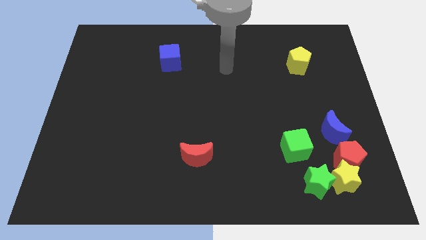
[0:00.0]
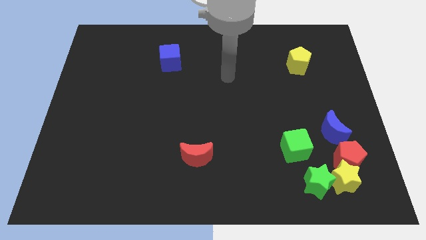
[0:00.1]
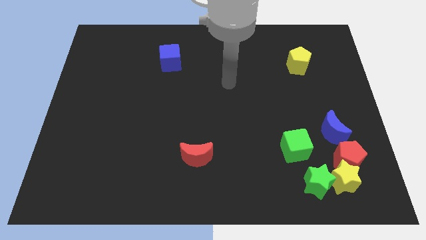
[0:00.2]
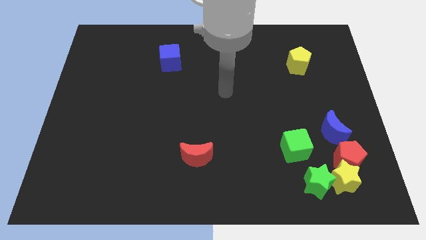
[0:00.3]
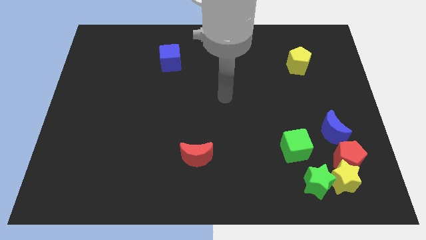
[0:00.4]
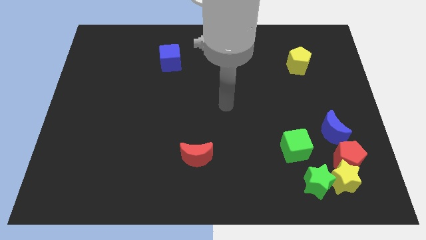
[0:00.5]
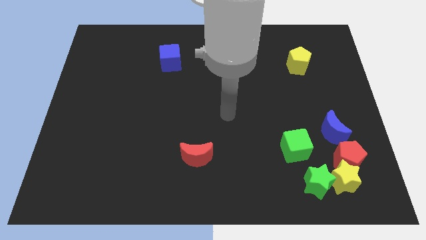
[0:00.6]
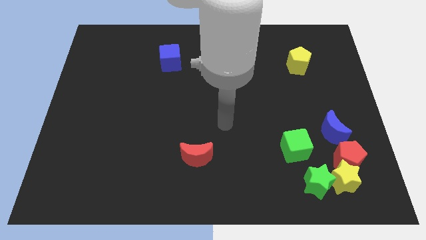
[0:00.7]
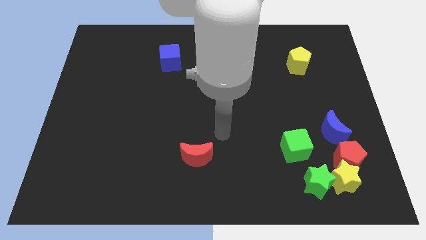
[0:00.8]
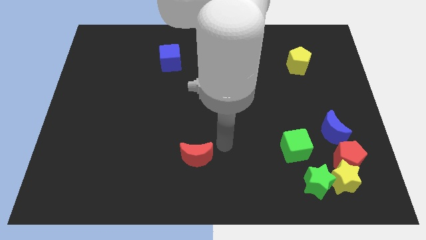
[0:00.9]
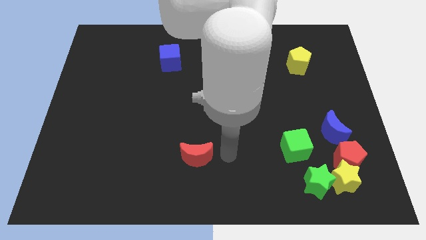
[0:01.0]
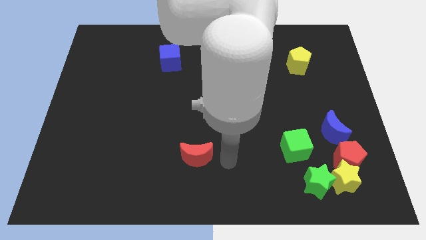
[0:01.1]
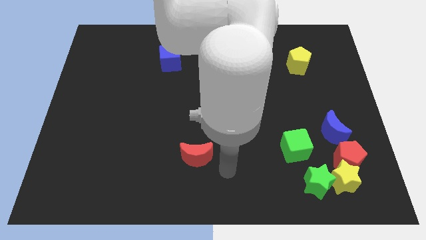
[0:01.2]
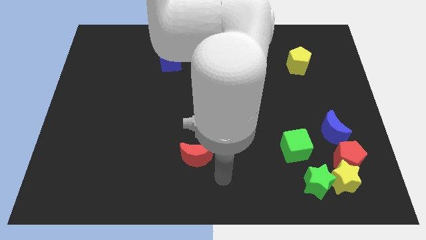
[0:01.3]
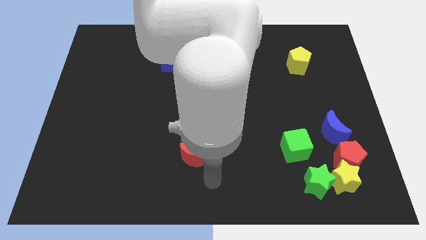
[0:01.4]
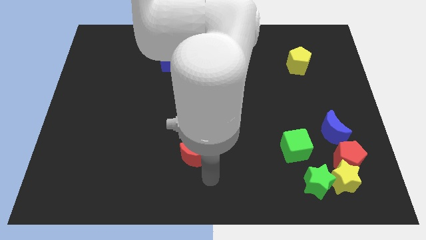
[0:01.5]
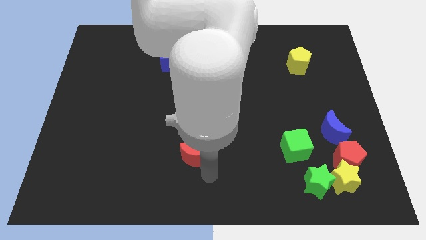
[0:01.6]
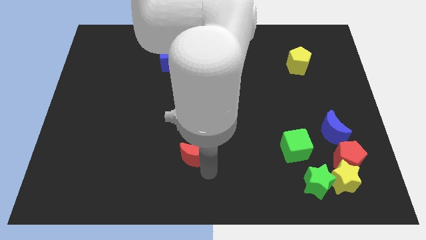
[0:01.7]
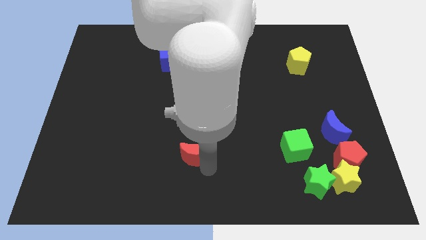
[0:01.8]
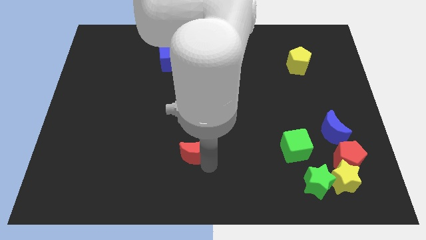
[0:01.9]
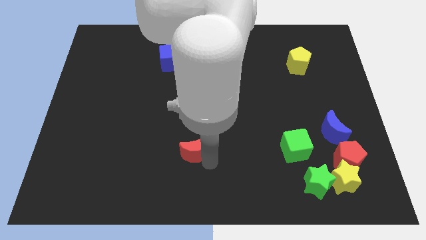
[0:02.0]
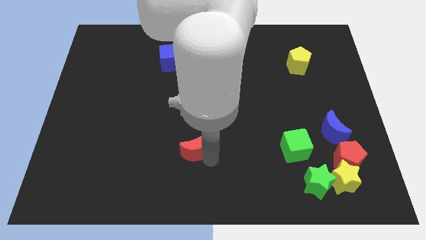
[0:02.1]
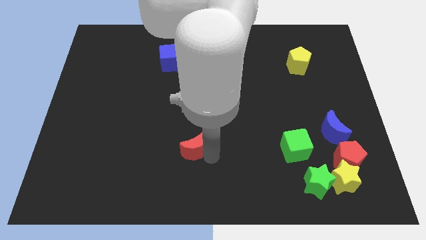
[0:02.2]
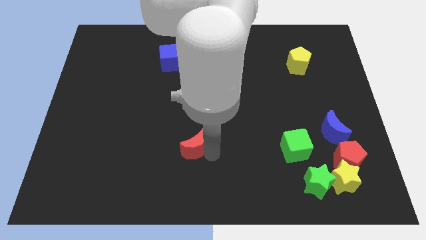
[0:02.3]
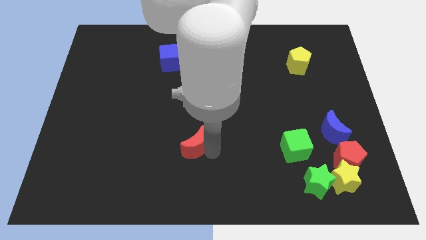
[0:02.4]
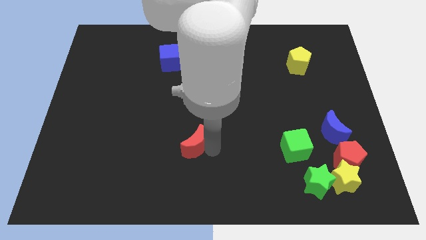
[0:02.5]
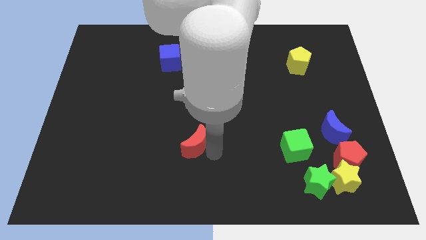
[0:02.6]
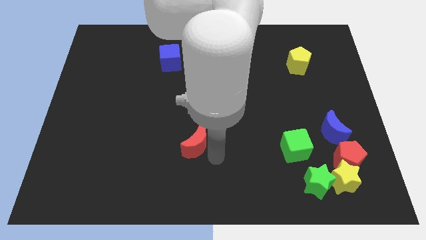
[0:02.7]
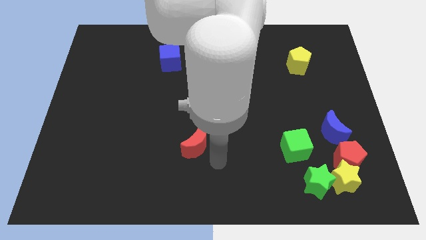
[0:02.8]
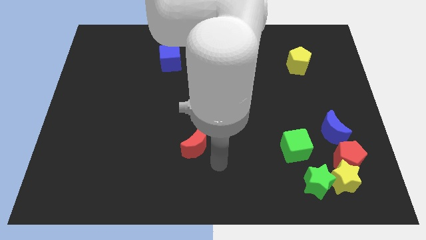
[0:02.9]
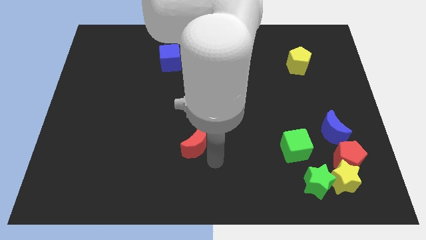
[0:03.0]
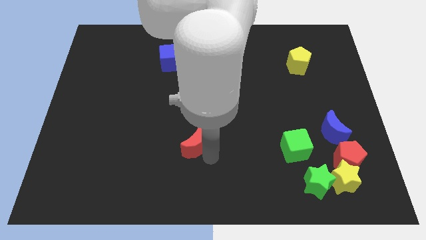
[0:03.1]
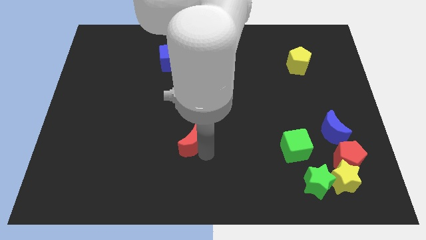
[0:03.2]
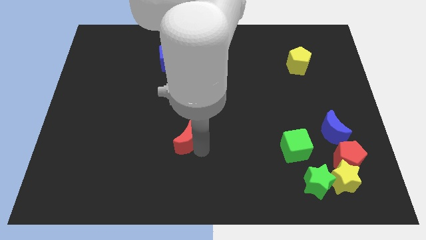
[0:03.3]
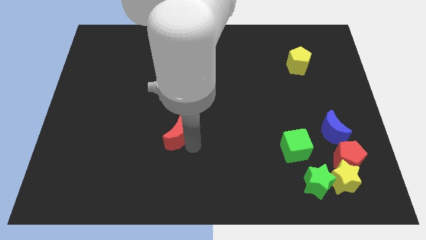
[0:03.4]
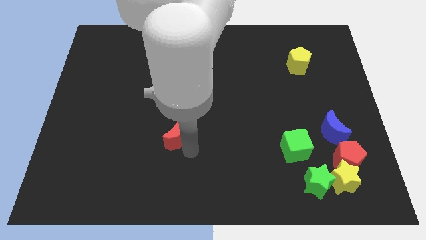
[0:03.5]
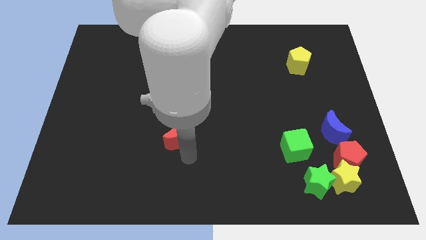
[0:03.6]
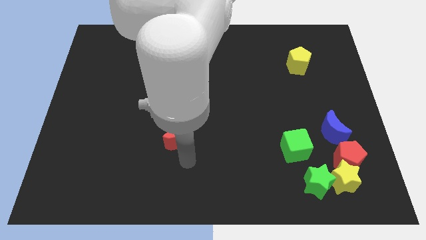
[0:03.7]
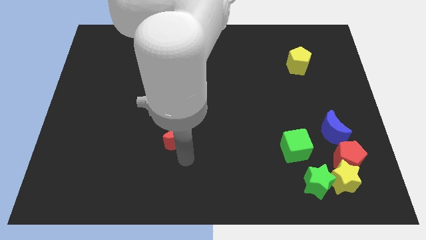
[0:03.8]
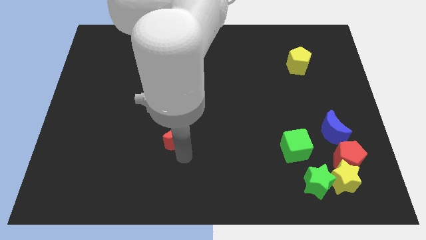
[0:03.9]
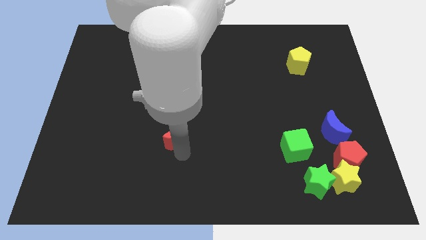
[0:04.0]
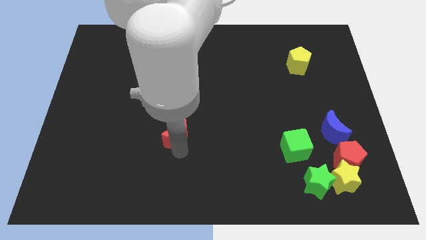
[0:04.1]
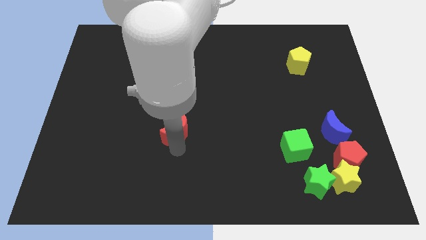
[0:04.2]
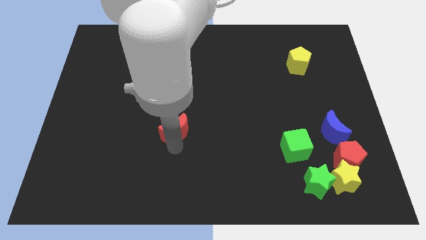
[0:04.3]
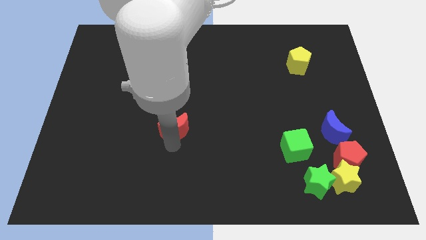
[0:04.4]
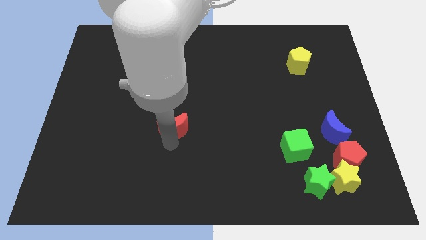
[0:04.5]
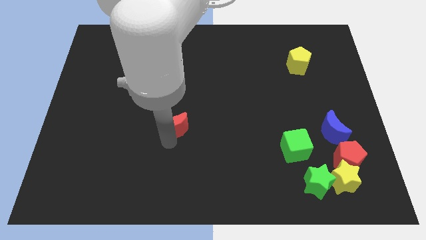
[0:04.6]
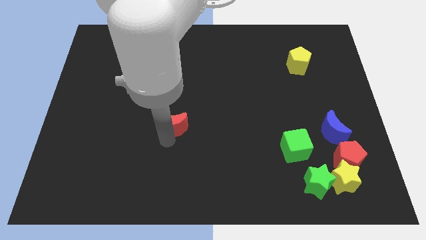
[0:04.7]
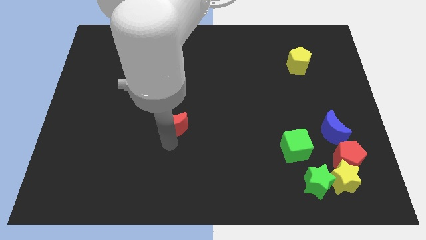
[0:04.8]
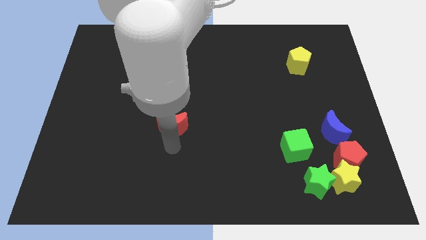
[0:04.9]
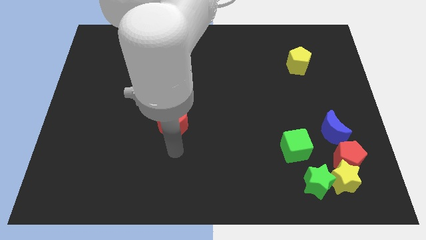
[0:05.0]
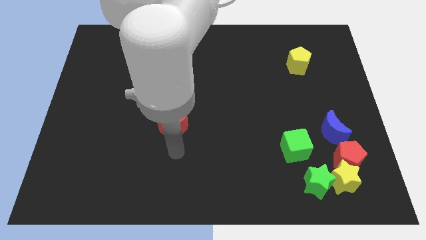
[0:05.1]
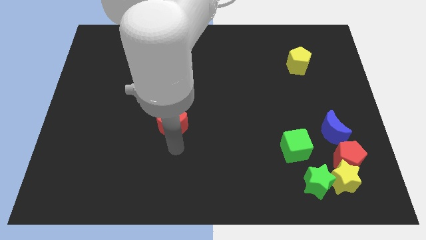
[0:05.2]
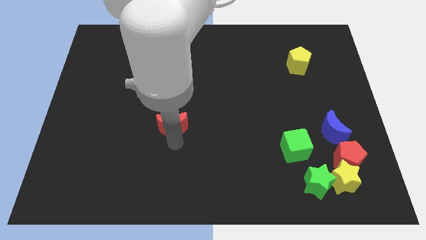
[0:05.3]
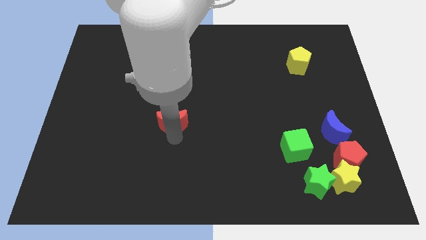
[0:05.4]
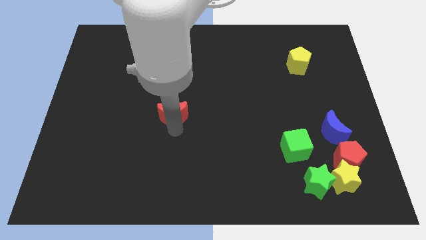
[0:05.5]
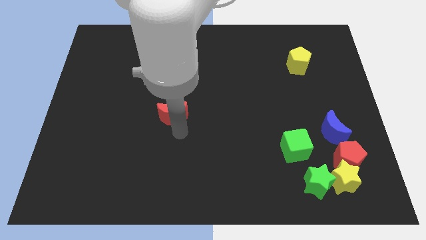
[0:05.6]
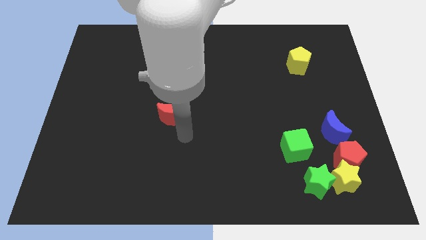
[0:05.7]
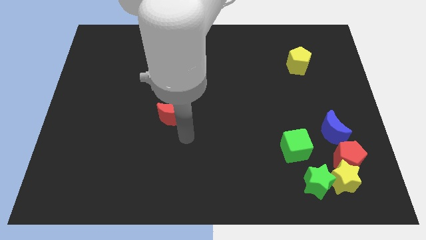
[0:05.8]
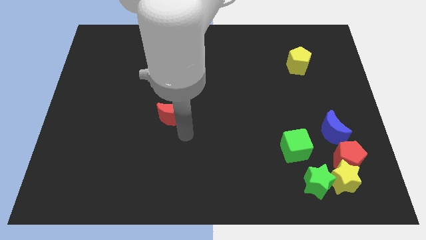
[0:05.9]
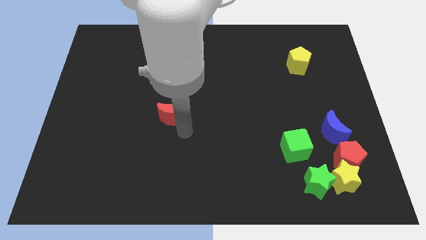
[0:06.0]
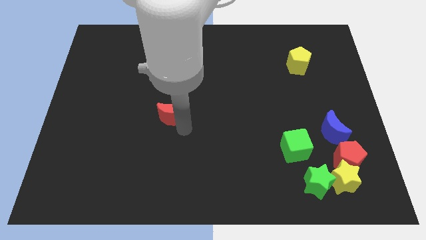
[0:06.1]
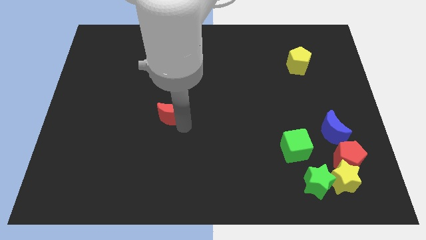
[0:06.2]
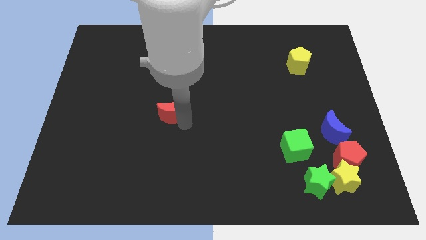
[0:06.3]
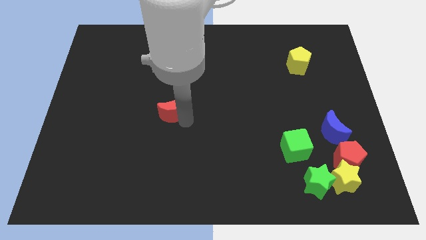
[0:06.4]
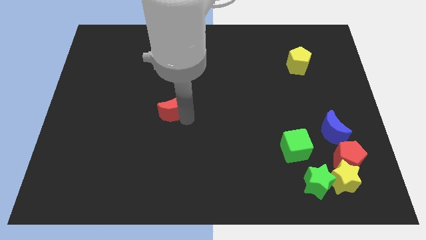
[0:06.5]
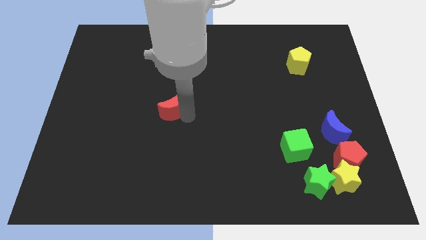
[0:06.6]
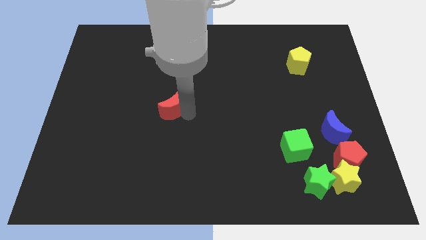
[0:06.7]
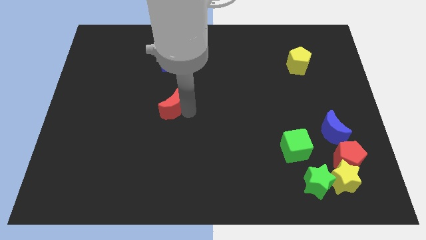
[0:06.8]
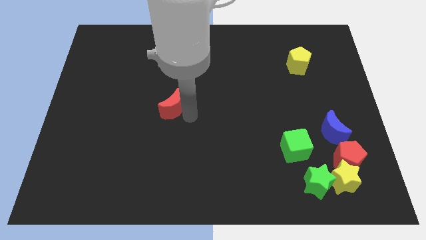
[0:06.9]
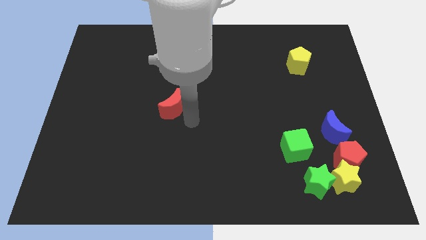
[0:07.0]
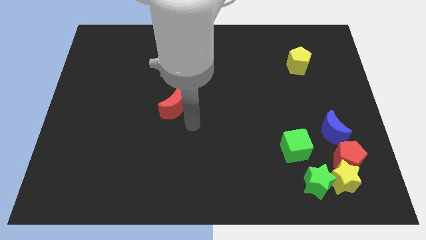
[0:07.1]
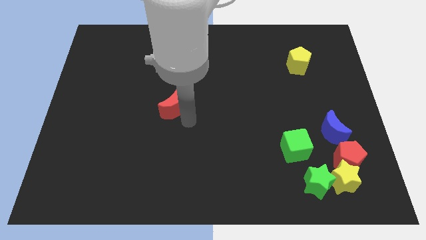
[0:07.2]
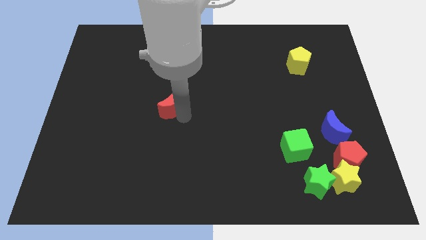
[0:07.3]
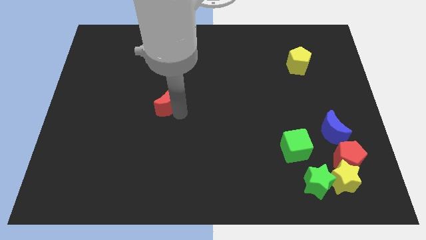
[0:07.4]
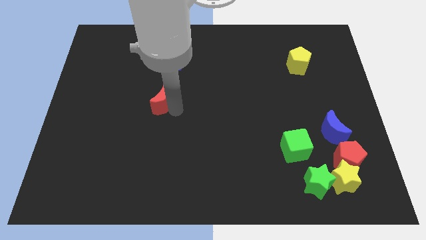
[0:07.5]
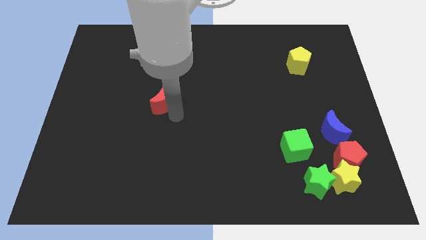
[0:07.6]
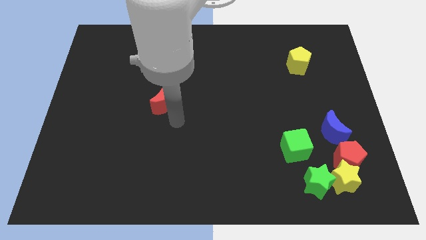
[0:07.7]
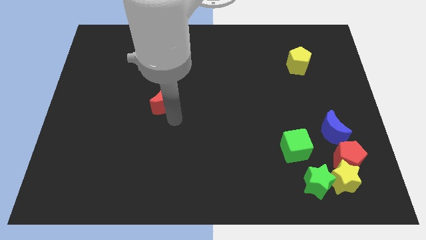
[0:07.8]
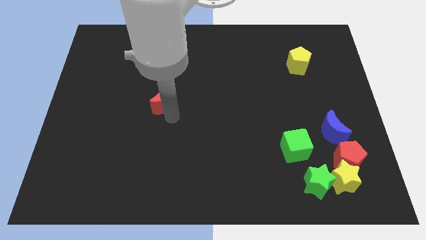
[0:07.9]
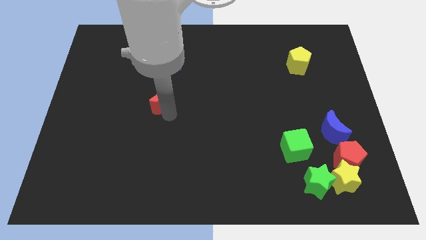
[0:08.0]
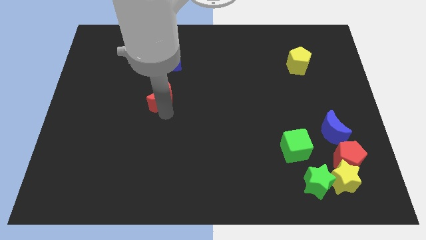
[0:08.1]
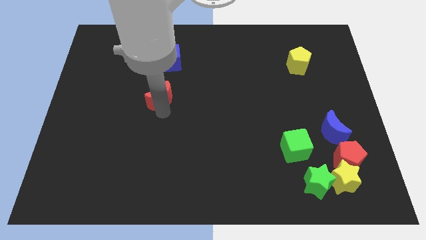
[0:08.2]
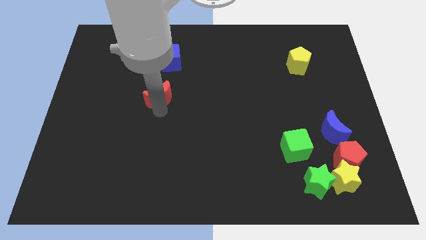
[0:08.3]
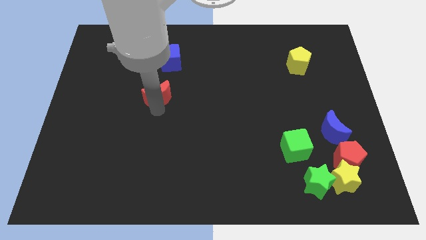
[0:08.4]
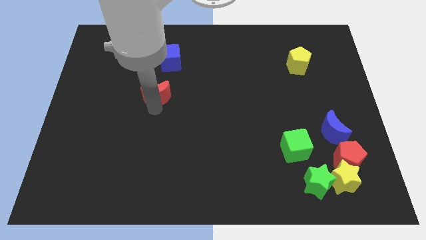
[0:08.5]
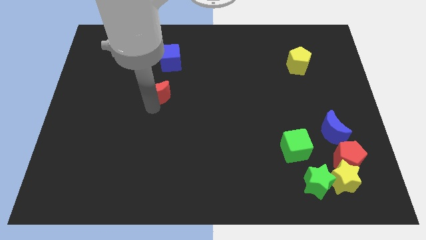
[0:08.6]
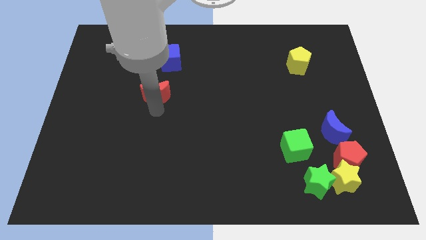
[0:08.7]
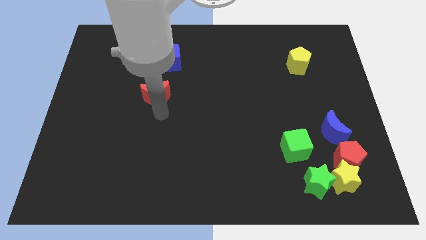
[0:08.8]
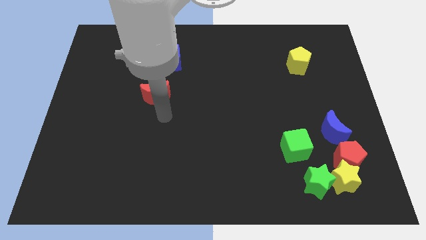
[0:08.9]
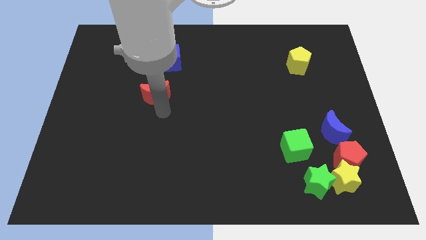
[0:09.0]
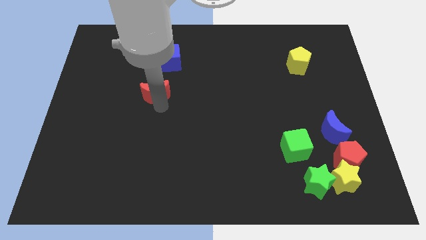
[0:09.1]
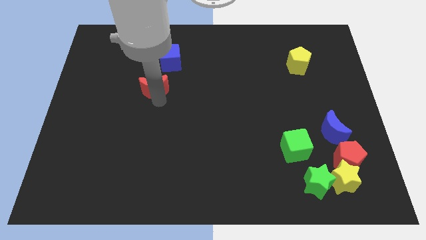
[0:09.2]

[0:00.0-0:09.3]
move the red moon to the bottom left of the blue cube
